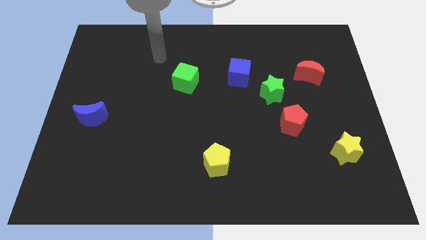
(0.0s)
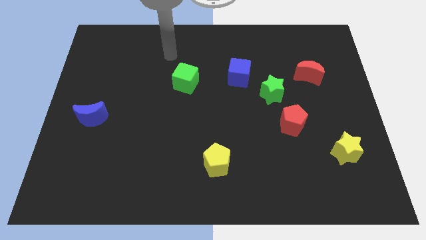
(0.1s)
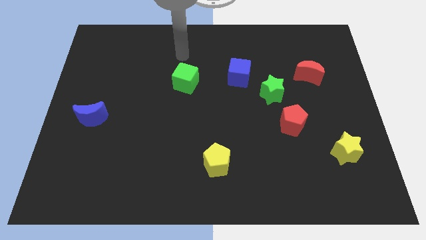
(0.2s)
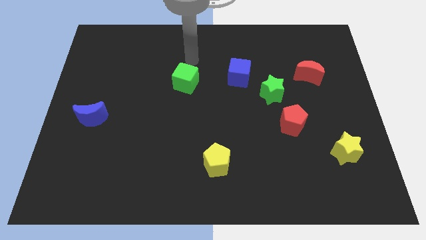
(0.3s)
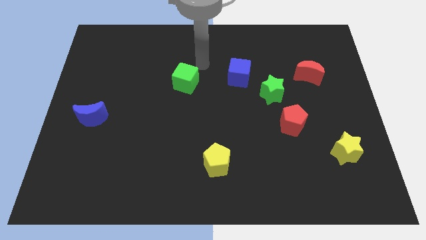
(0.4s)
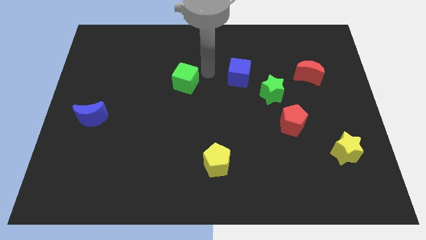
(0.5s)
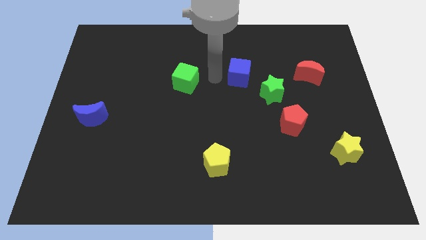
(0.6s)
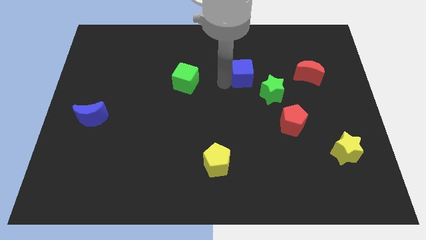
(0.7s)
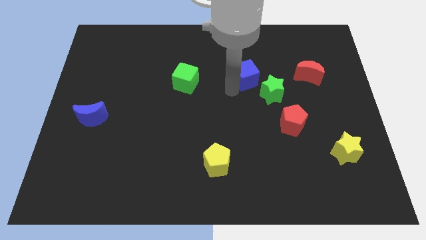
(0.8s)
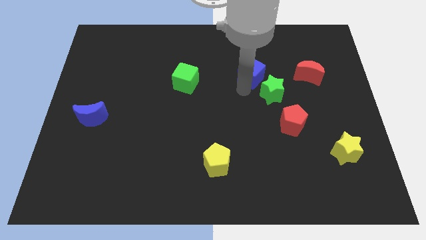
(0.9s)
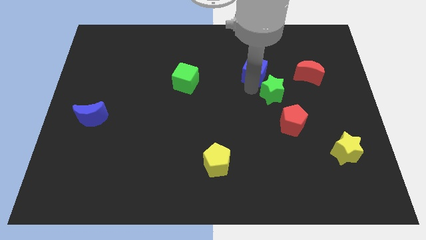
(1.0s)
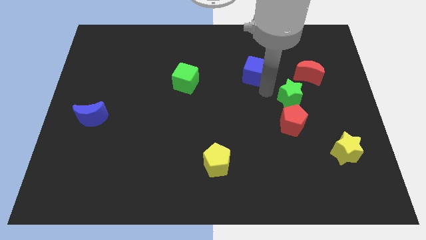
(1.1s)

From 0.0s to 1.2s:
pull the blue cube apart from the green star

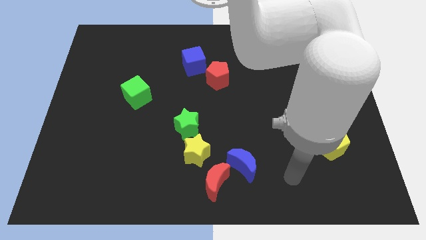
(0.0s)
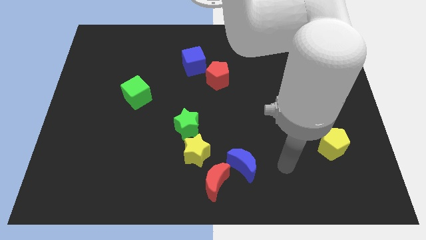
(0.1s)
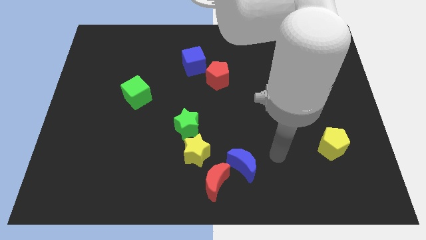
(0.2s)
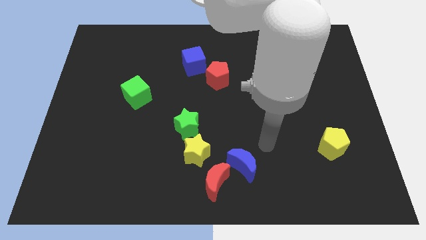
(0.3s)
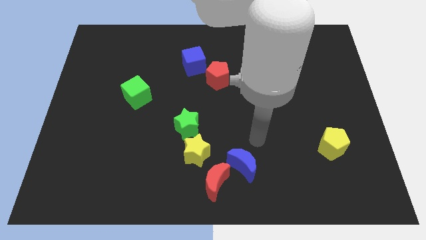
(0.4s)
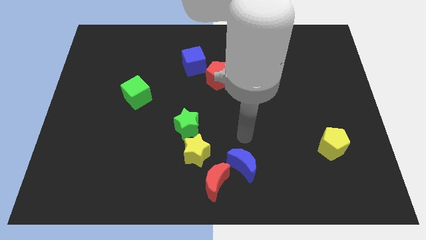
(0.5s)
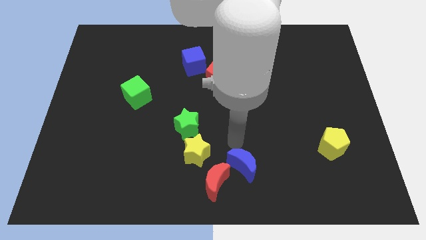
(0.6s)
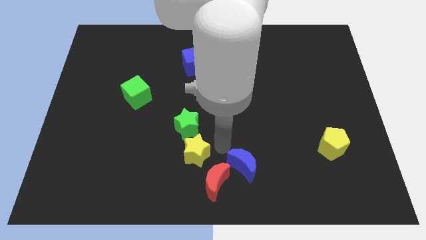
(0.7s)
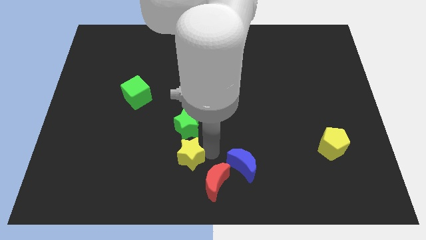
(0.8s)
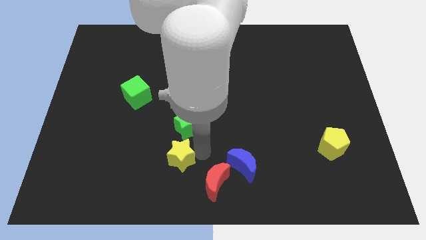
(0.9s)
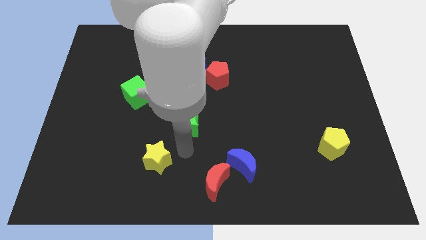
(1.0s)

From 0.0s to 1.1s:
move the green star away from the yellow star

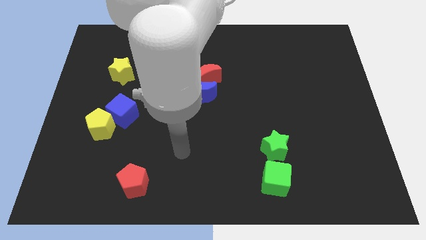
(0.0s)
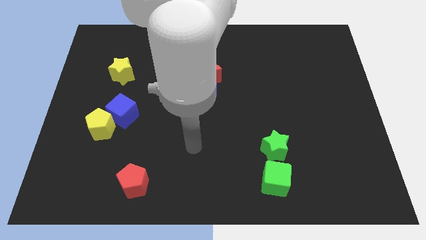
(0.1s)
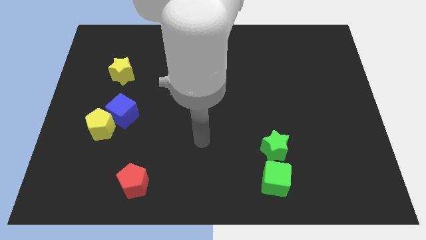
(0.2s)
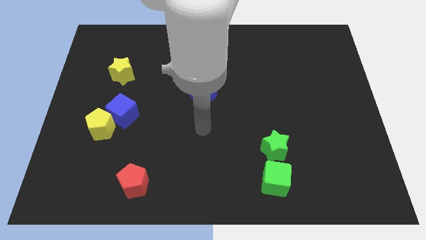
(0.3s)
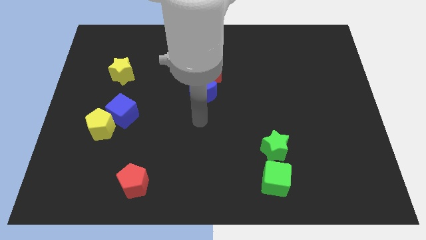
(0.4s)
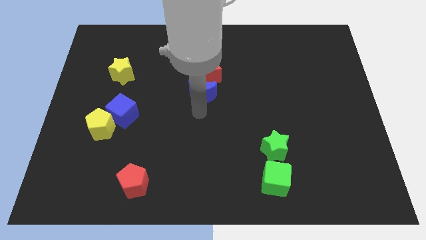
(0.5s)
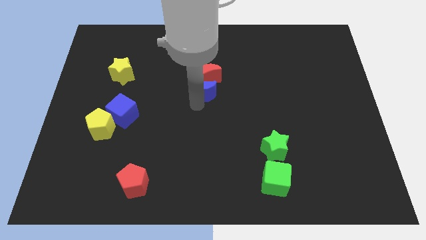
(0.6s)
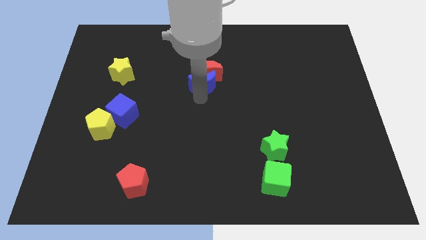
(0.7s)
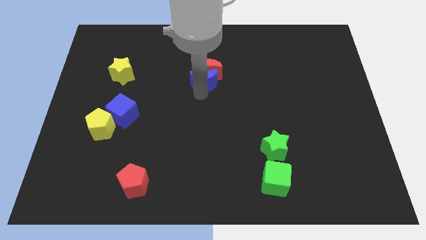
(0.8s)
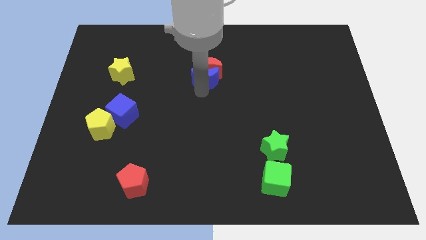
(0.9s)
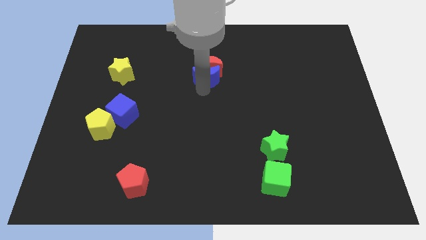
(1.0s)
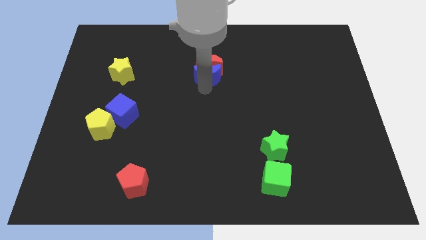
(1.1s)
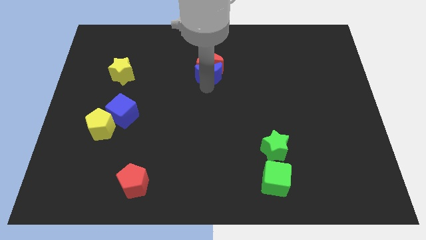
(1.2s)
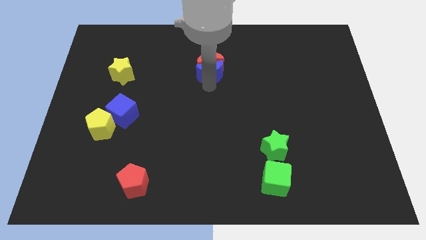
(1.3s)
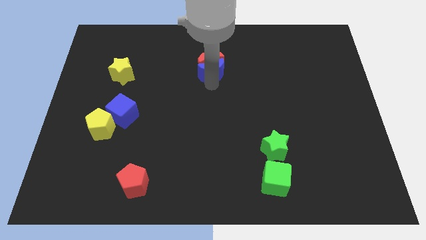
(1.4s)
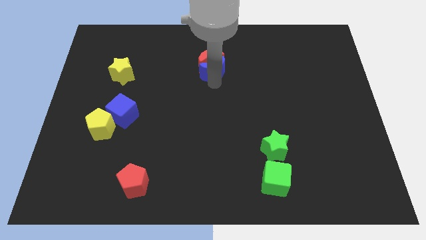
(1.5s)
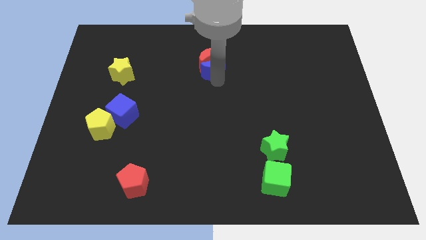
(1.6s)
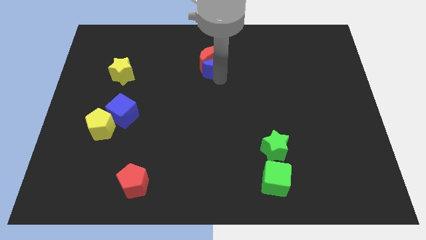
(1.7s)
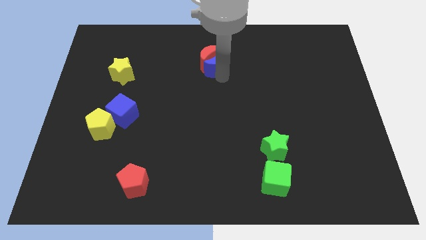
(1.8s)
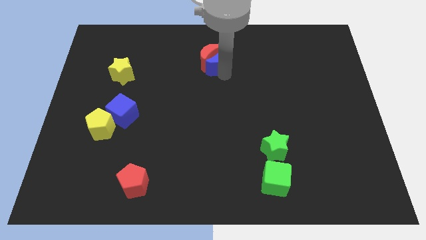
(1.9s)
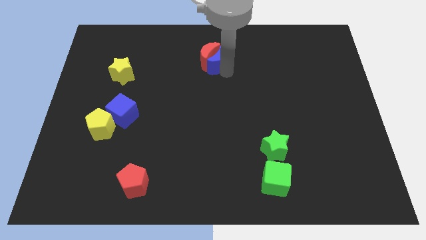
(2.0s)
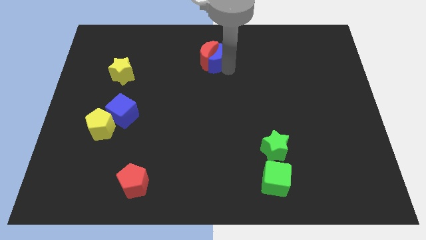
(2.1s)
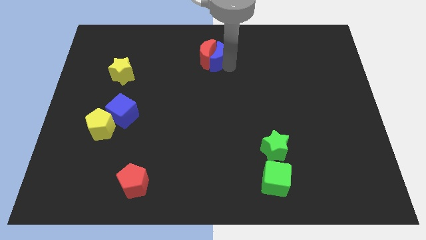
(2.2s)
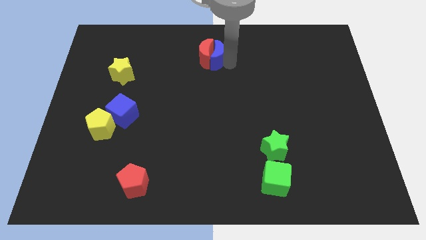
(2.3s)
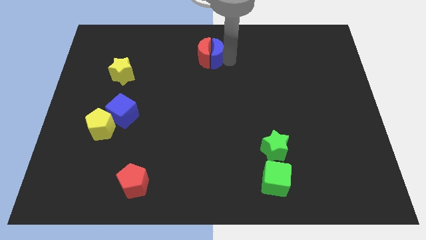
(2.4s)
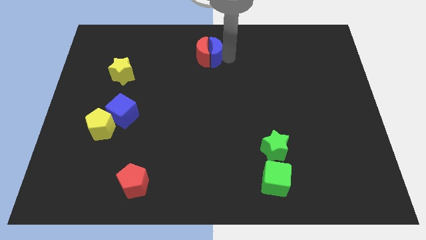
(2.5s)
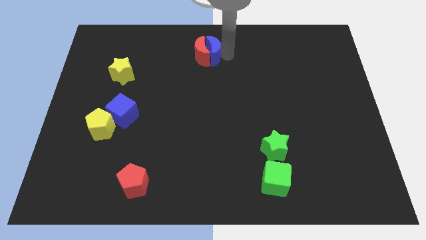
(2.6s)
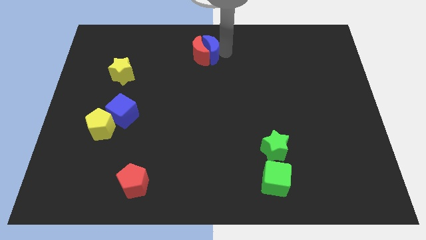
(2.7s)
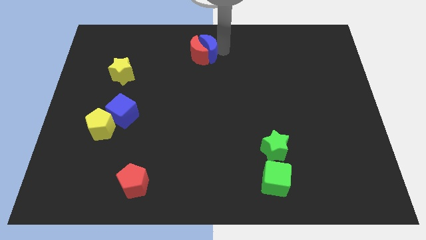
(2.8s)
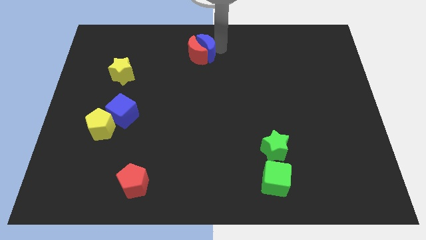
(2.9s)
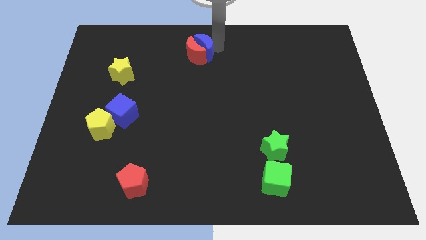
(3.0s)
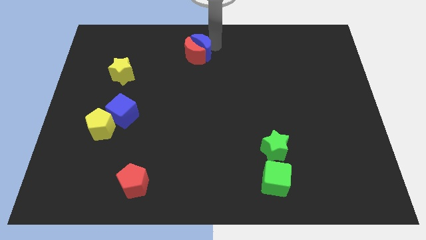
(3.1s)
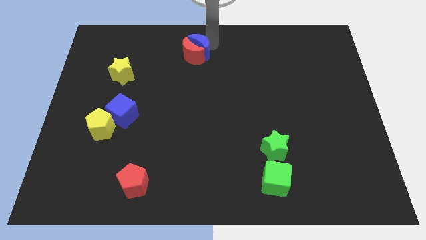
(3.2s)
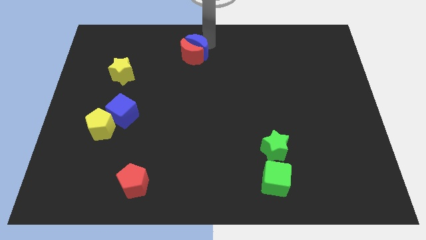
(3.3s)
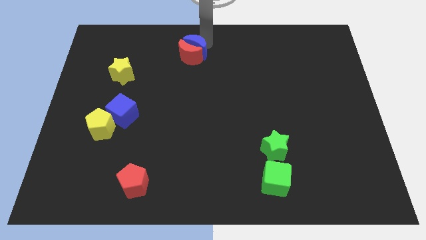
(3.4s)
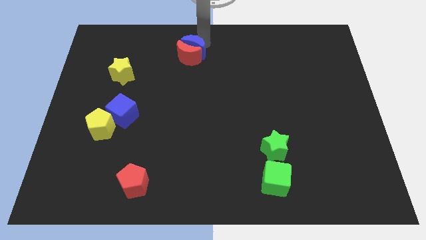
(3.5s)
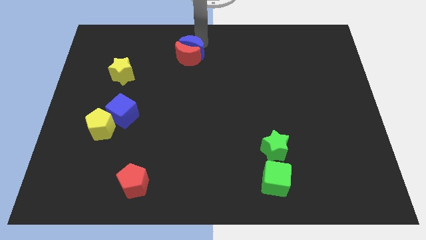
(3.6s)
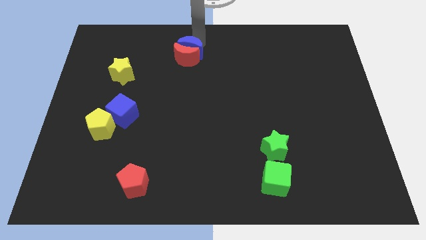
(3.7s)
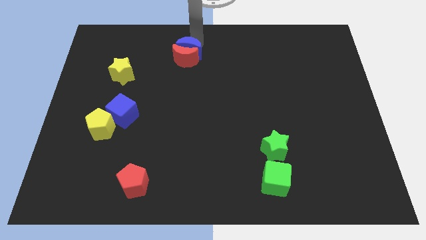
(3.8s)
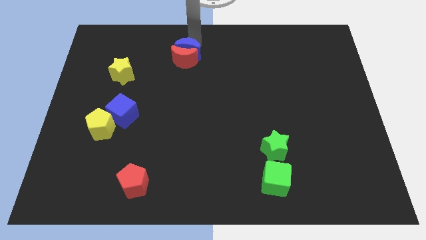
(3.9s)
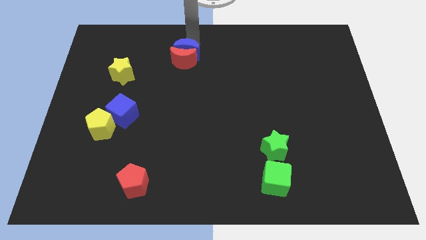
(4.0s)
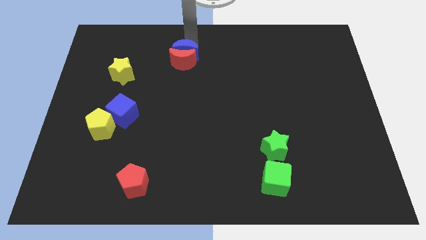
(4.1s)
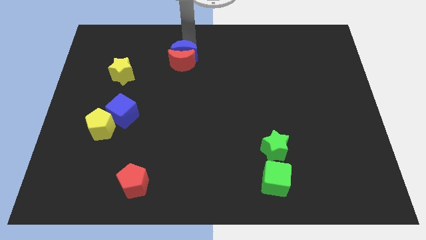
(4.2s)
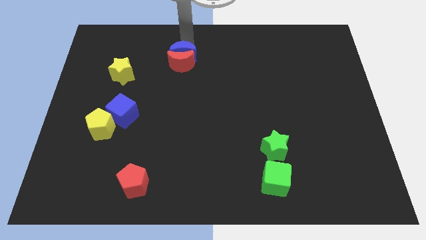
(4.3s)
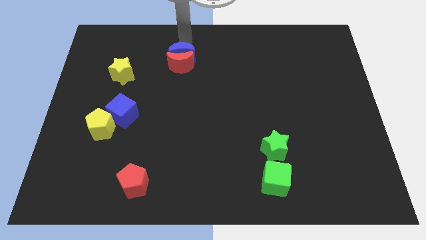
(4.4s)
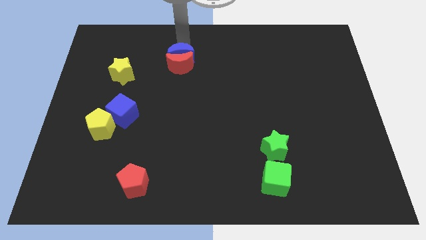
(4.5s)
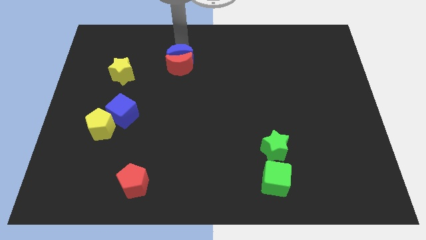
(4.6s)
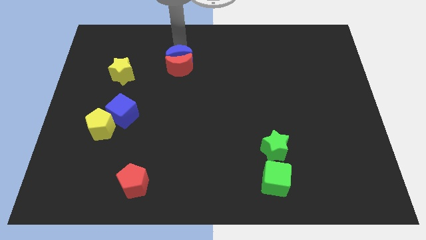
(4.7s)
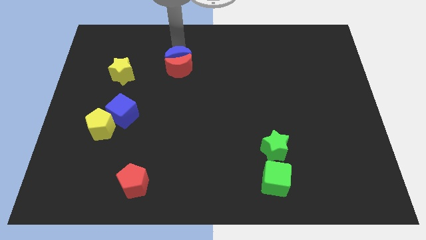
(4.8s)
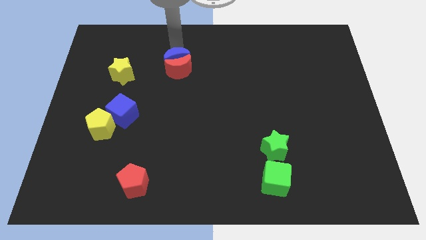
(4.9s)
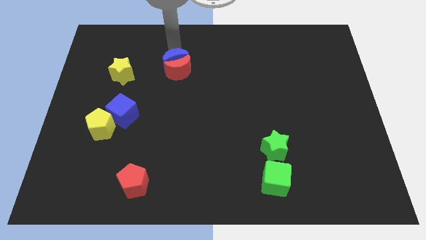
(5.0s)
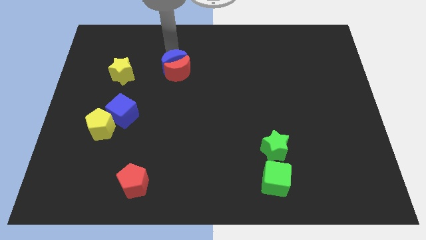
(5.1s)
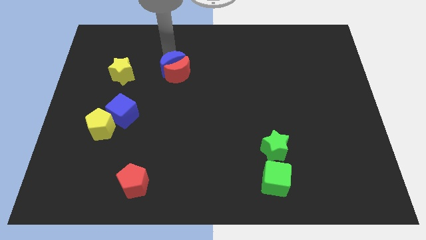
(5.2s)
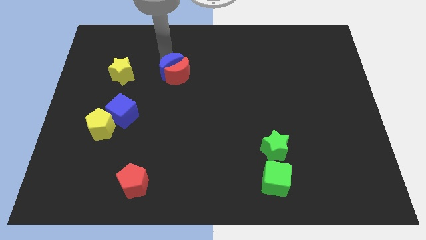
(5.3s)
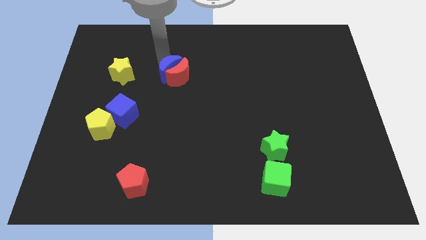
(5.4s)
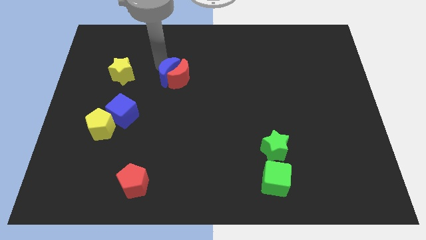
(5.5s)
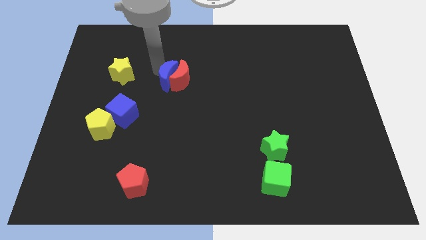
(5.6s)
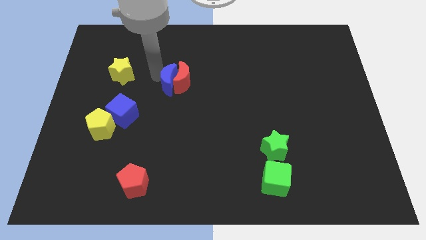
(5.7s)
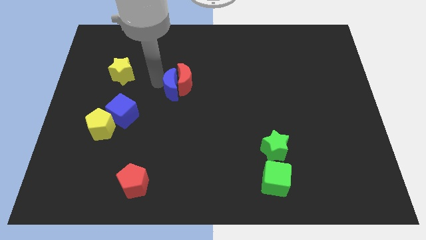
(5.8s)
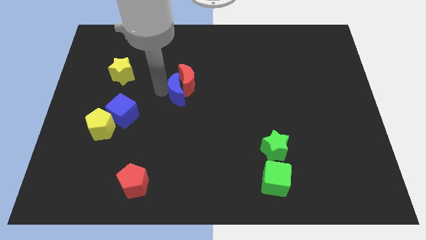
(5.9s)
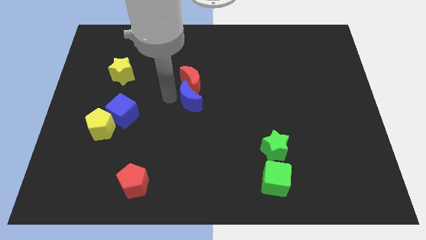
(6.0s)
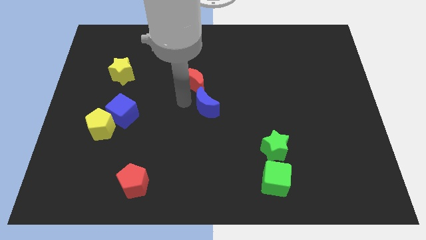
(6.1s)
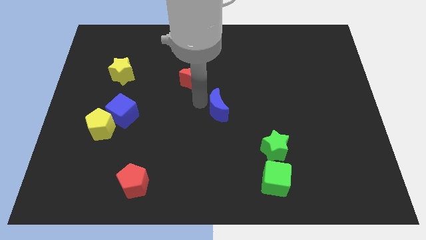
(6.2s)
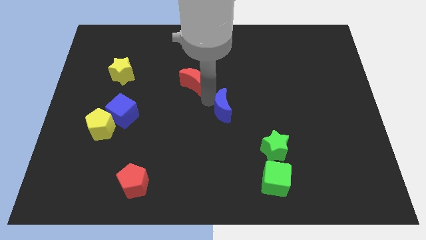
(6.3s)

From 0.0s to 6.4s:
separate the red moon from the blue moon

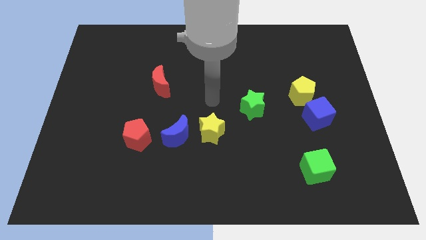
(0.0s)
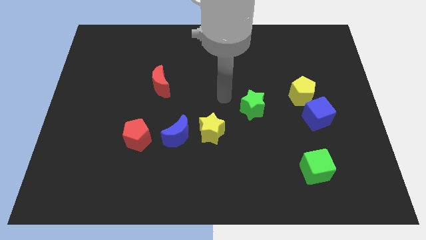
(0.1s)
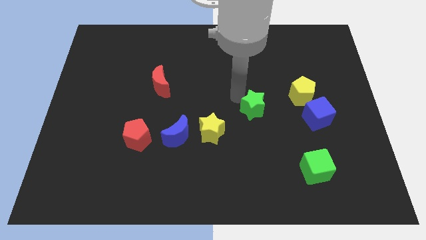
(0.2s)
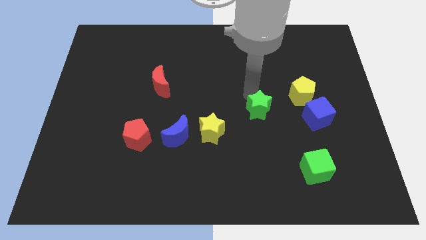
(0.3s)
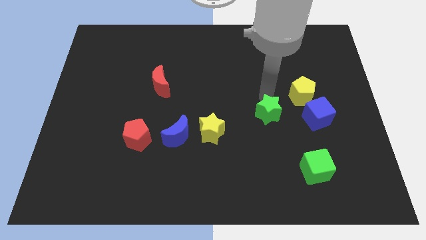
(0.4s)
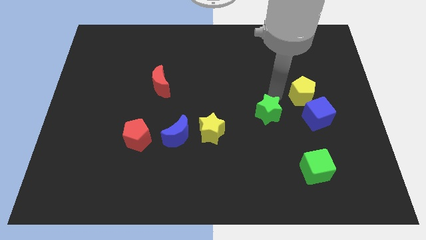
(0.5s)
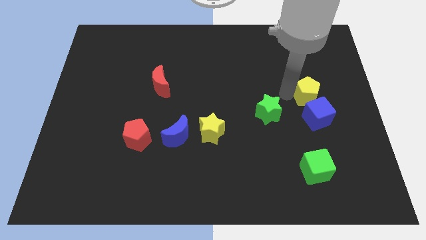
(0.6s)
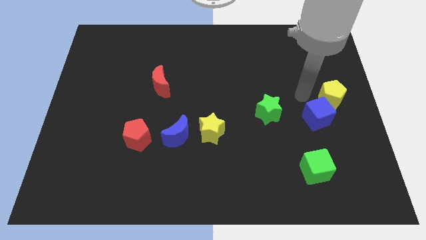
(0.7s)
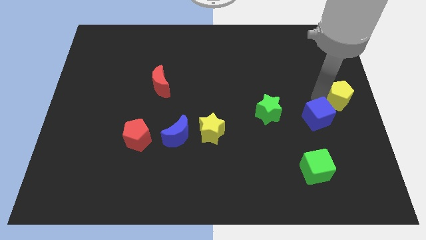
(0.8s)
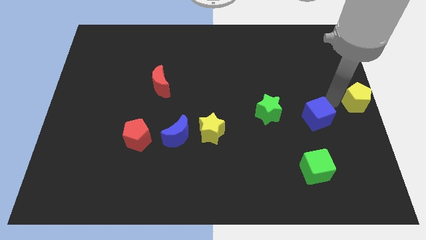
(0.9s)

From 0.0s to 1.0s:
move the blue cube away from the yellow pentagon
